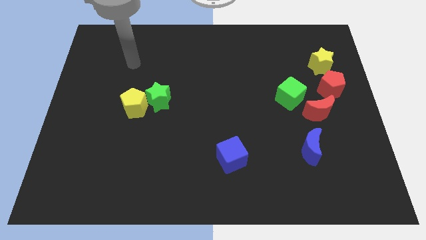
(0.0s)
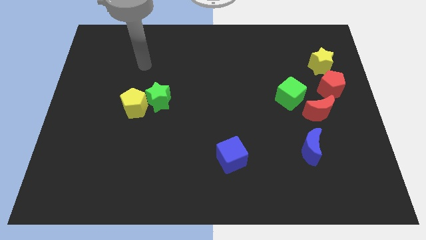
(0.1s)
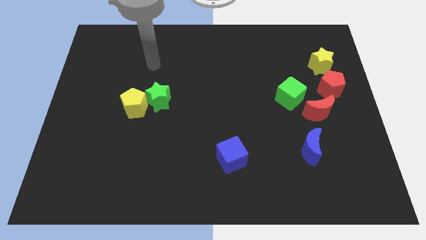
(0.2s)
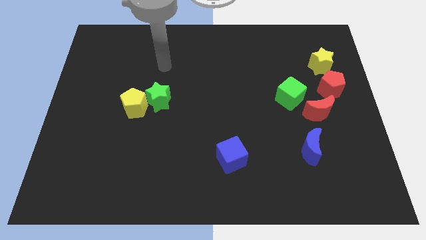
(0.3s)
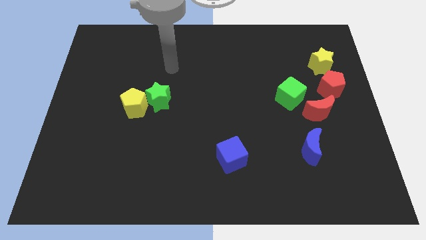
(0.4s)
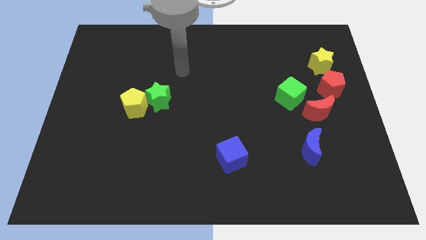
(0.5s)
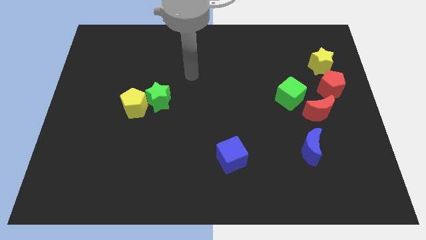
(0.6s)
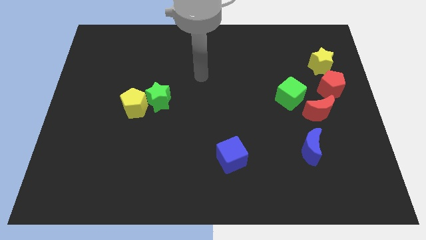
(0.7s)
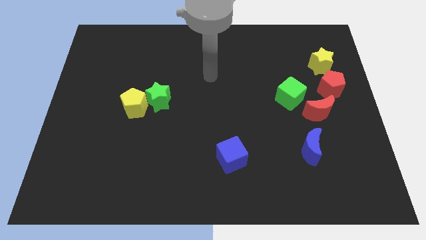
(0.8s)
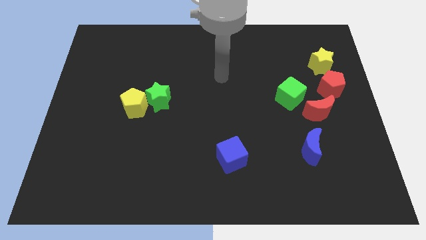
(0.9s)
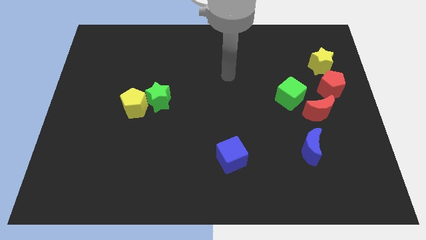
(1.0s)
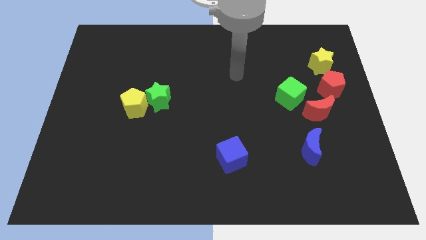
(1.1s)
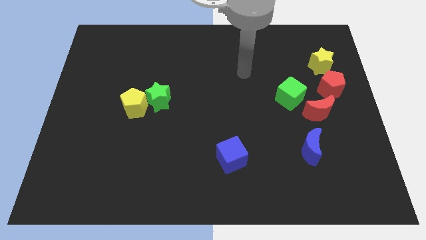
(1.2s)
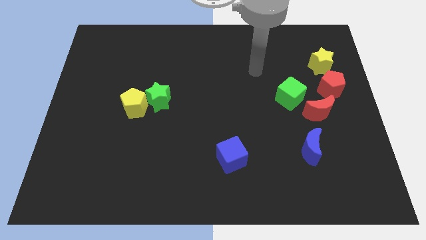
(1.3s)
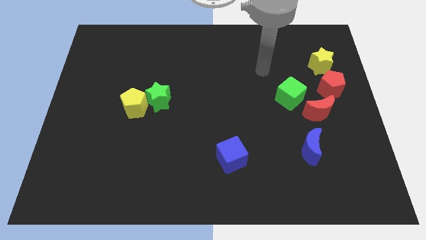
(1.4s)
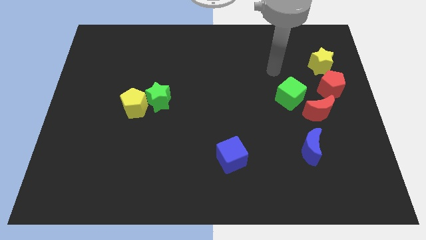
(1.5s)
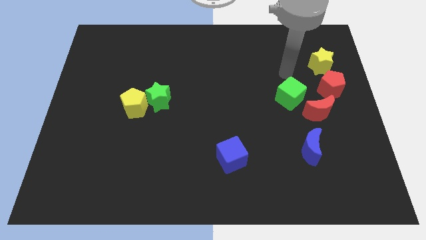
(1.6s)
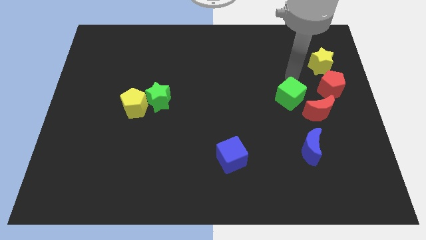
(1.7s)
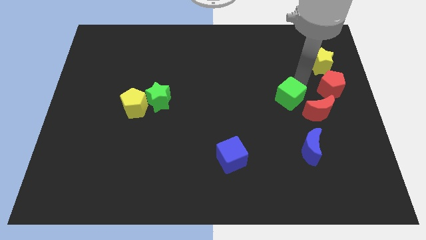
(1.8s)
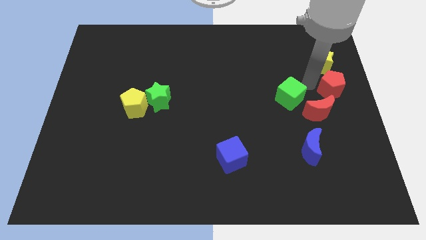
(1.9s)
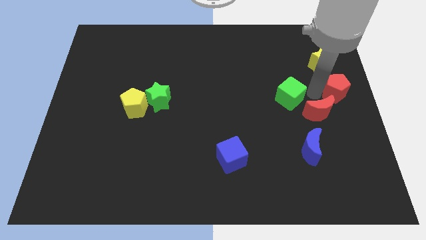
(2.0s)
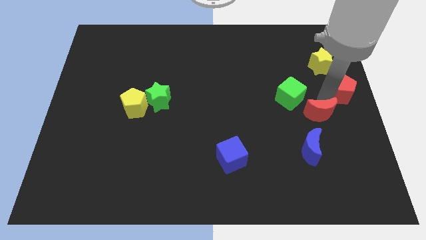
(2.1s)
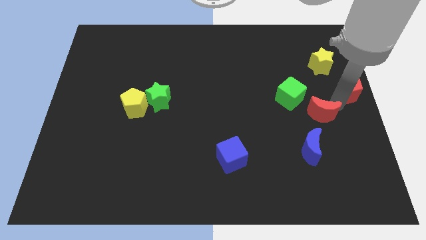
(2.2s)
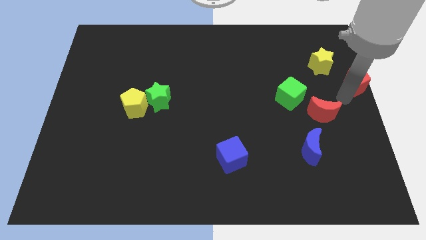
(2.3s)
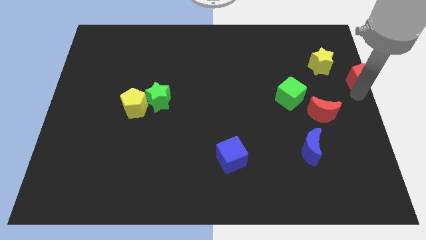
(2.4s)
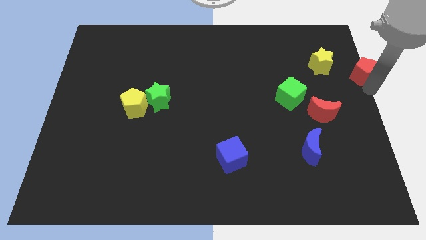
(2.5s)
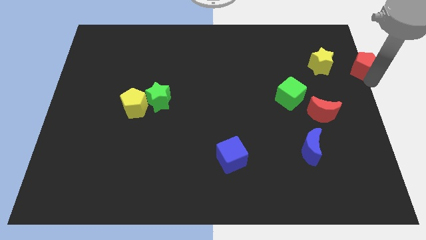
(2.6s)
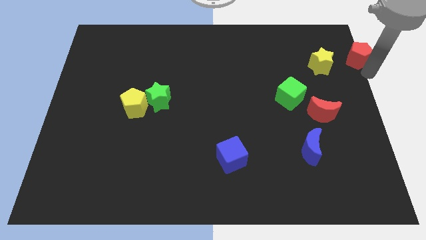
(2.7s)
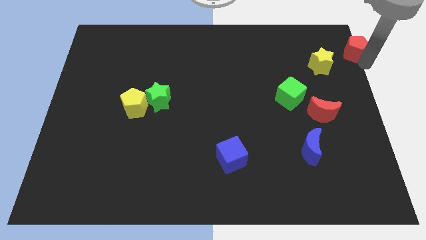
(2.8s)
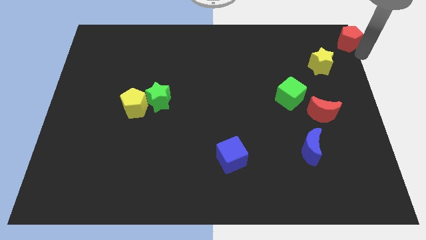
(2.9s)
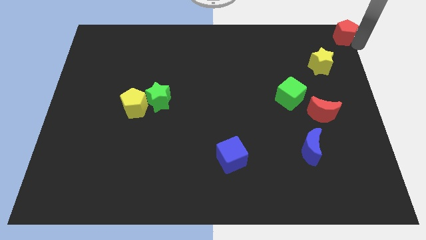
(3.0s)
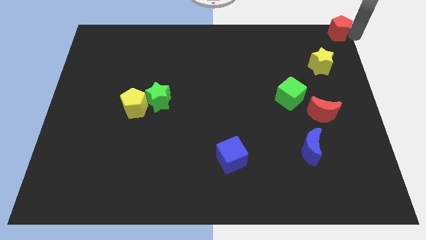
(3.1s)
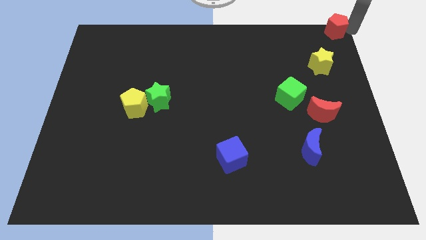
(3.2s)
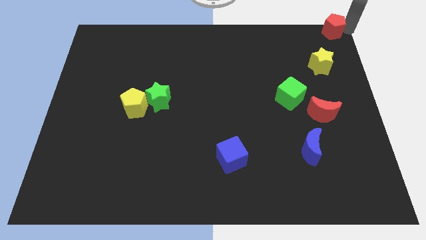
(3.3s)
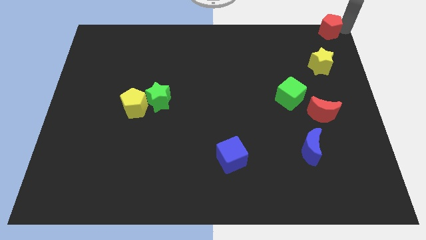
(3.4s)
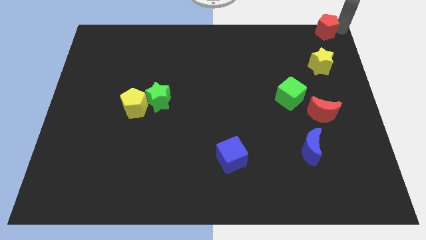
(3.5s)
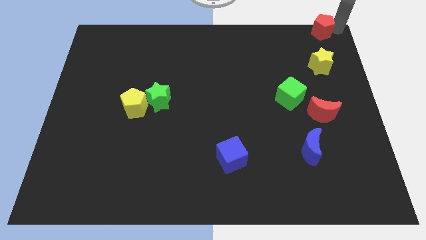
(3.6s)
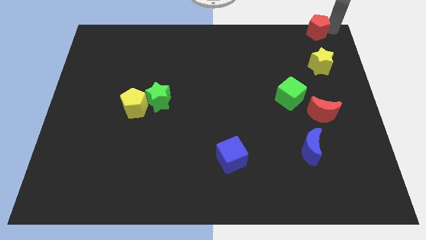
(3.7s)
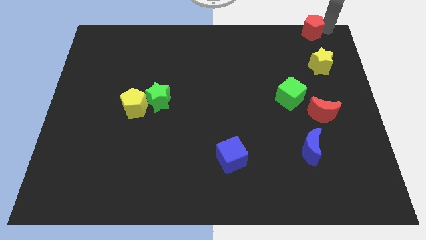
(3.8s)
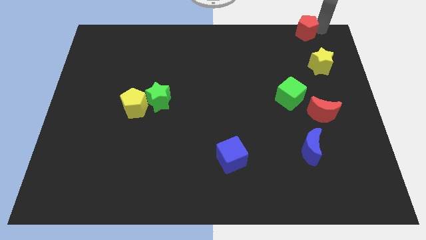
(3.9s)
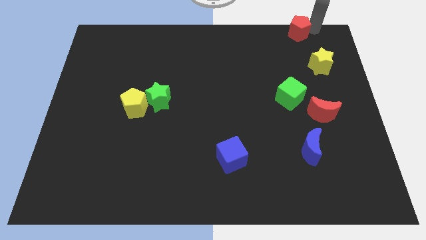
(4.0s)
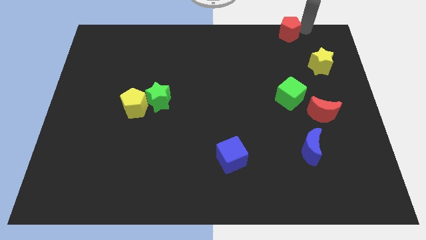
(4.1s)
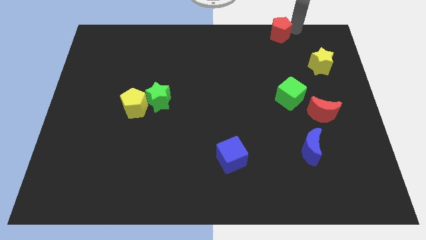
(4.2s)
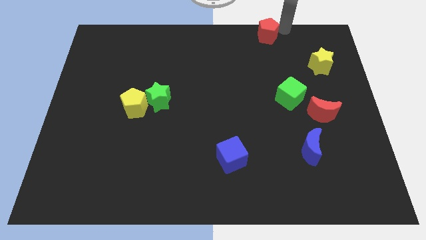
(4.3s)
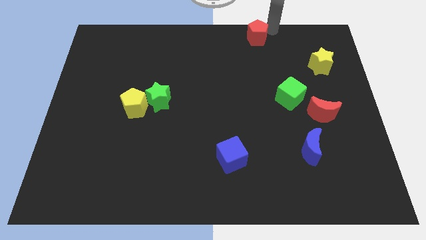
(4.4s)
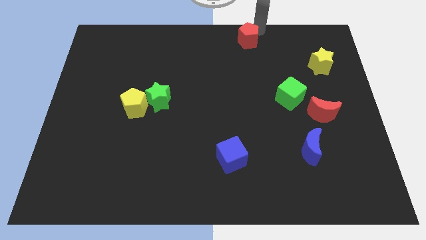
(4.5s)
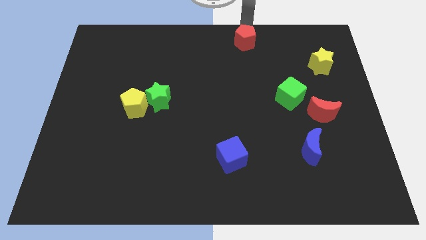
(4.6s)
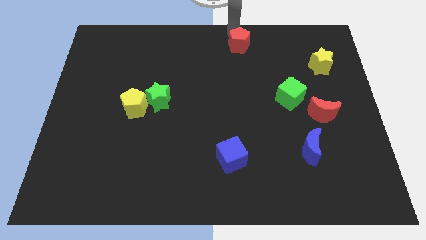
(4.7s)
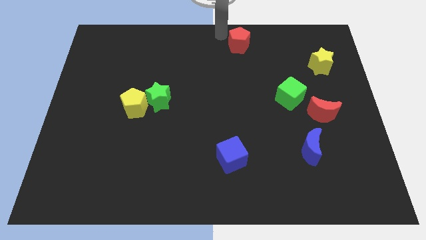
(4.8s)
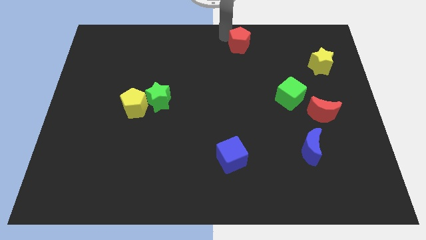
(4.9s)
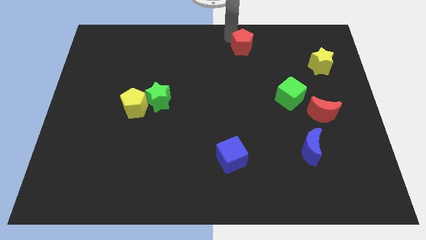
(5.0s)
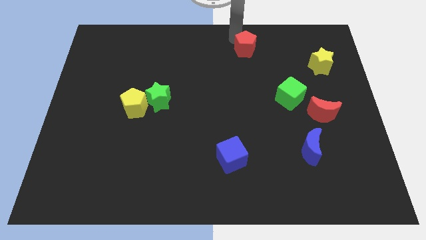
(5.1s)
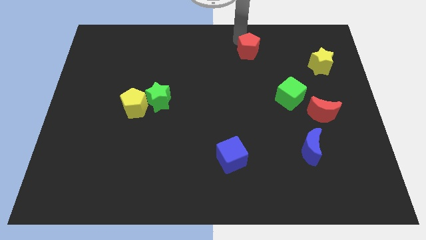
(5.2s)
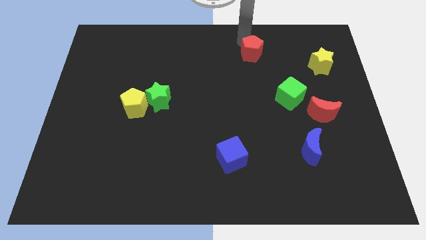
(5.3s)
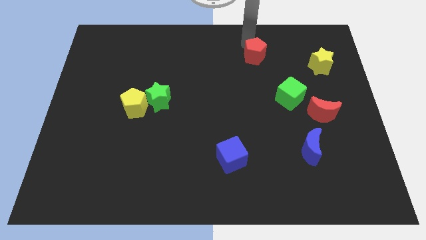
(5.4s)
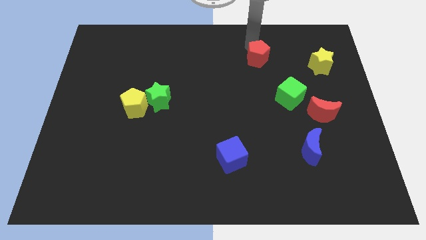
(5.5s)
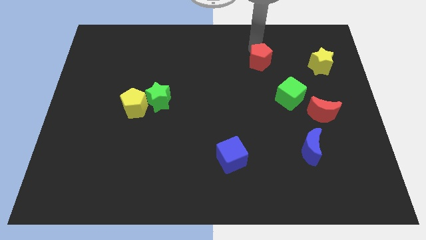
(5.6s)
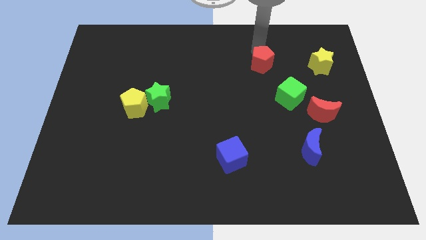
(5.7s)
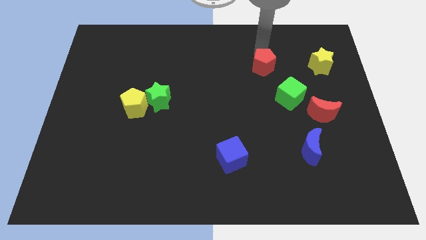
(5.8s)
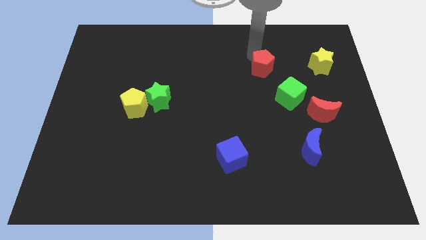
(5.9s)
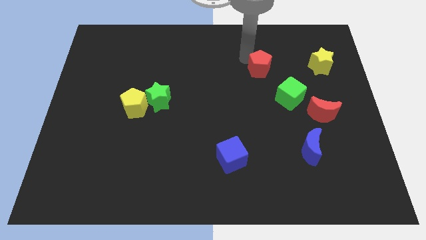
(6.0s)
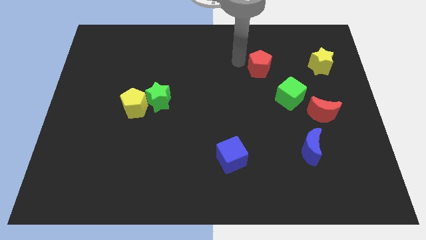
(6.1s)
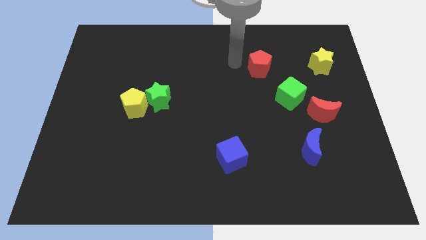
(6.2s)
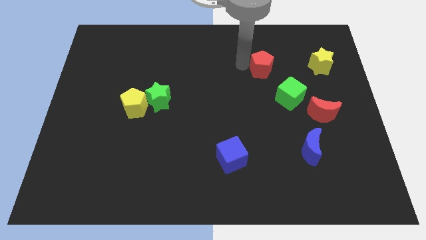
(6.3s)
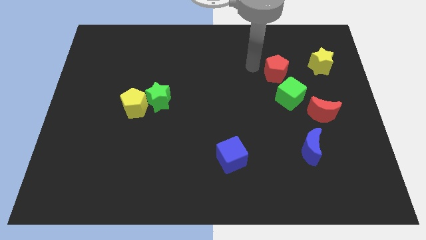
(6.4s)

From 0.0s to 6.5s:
put the red pentagon to the top of the green cube
